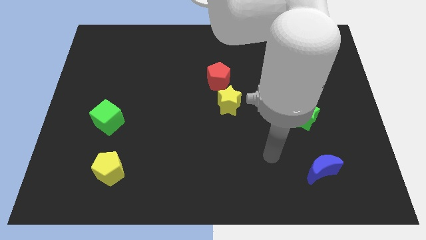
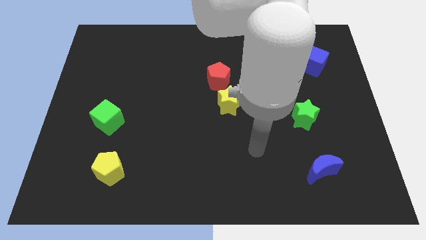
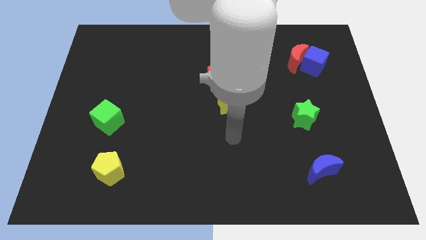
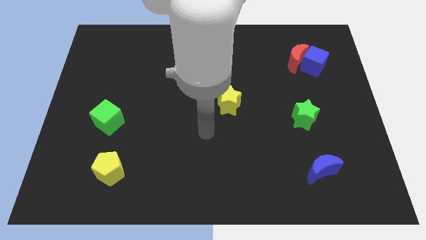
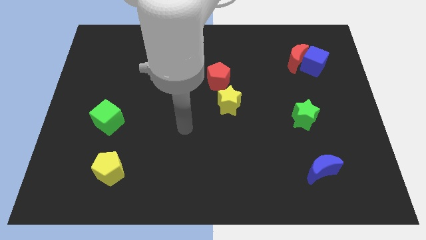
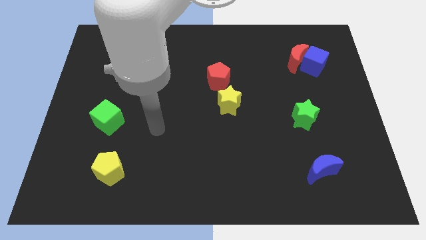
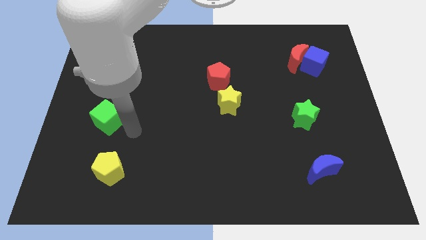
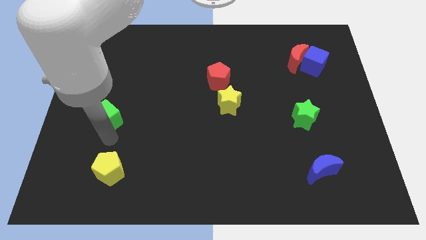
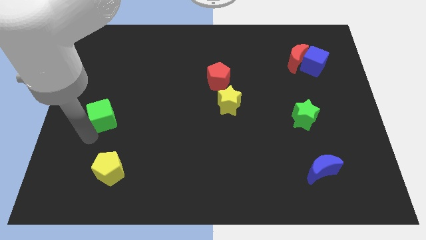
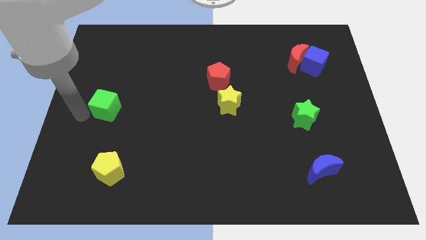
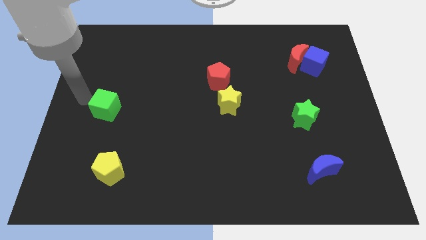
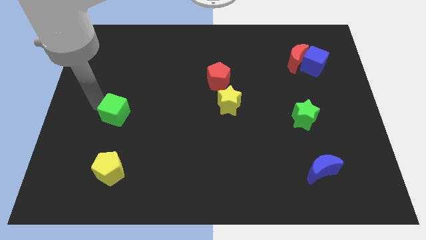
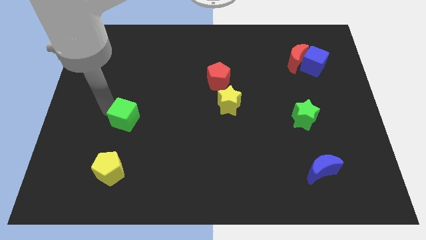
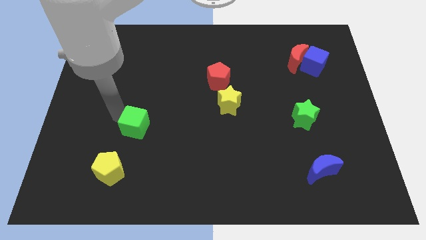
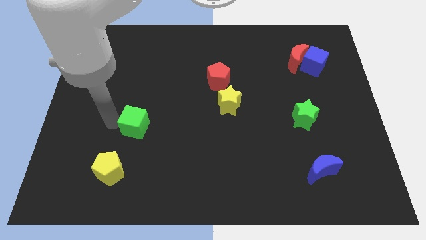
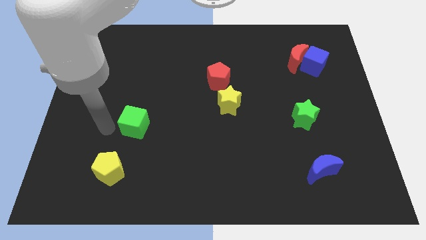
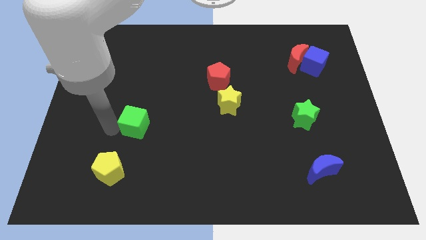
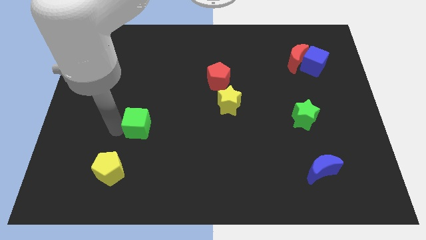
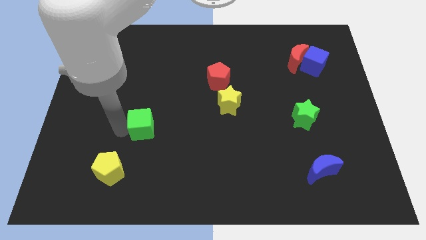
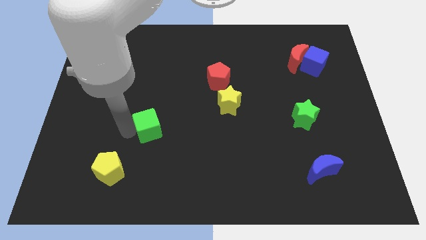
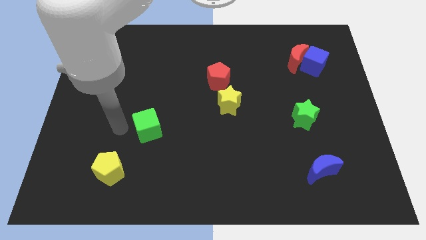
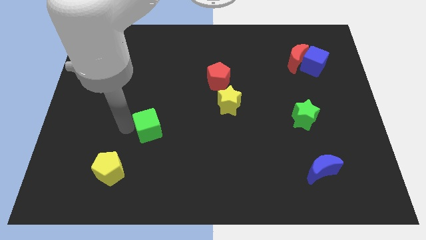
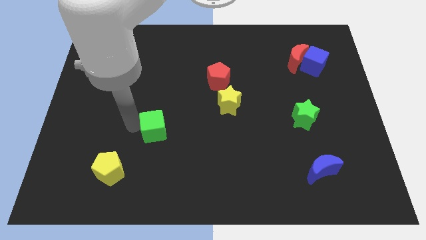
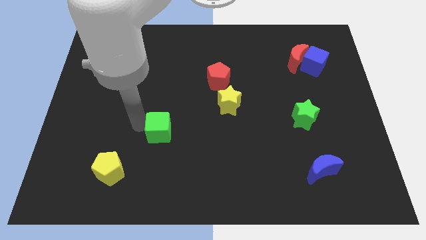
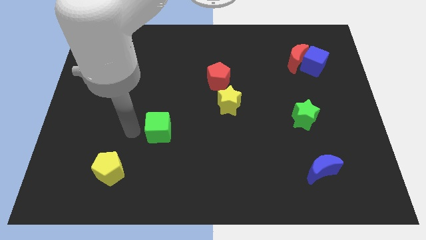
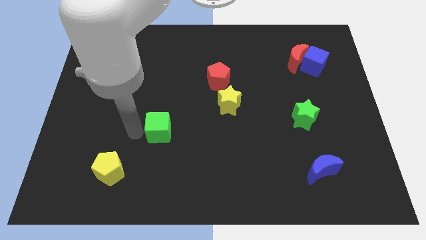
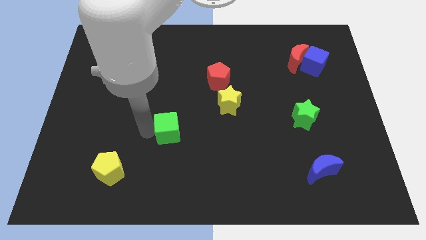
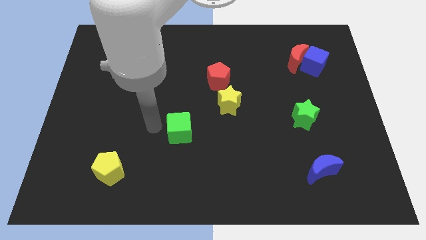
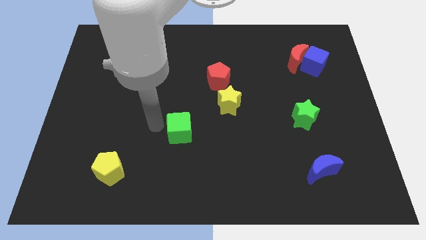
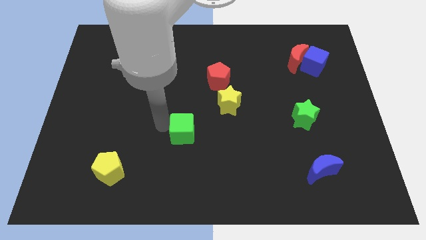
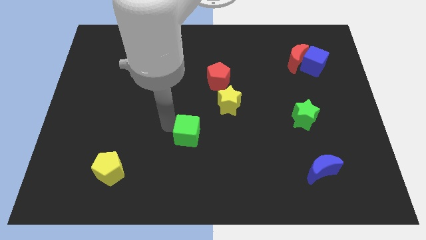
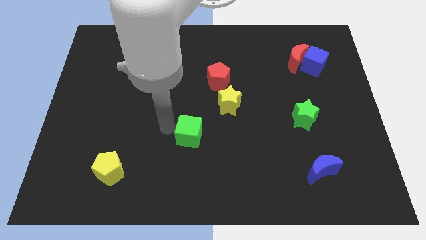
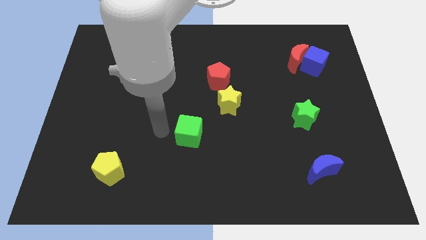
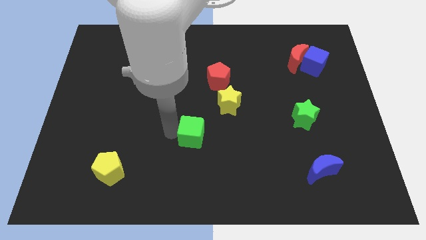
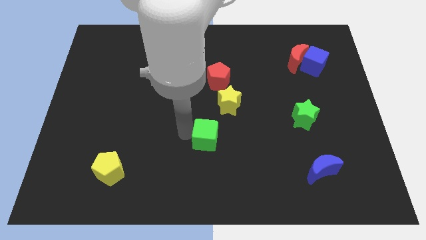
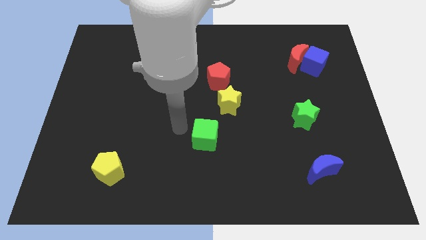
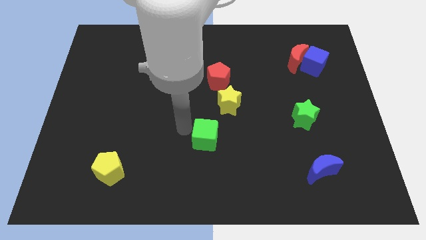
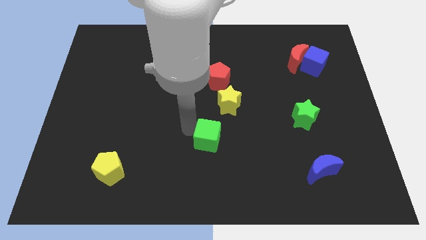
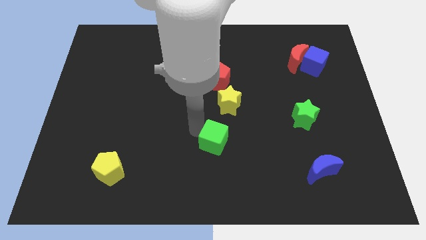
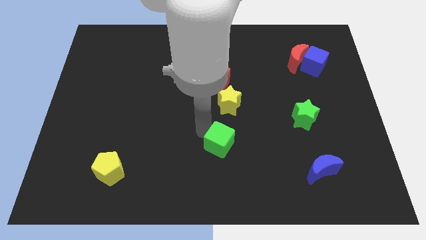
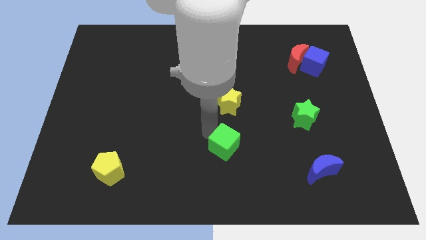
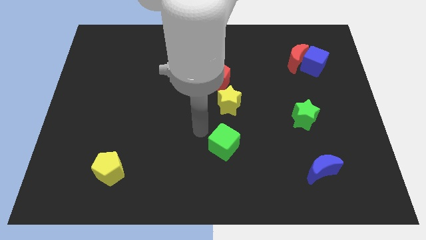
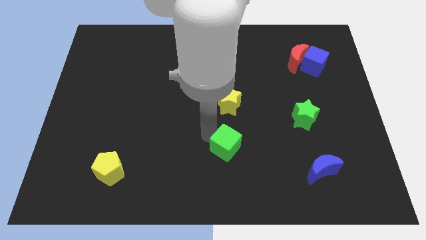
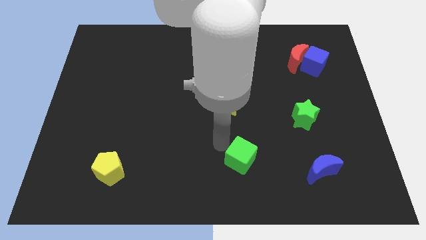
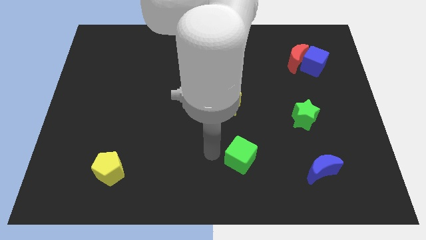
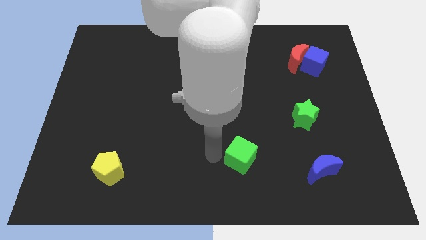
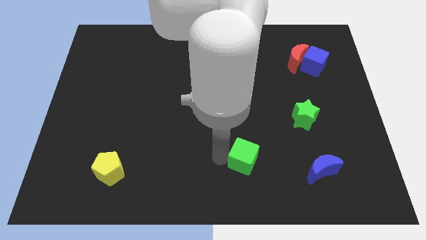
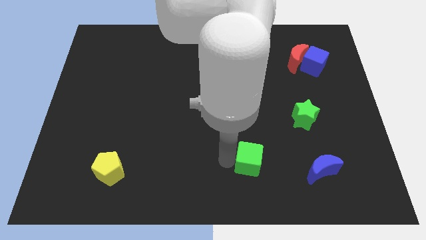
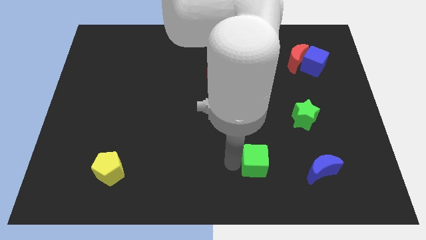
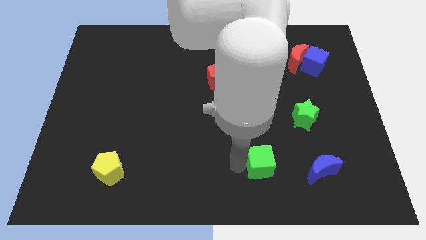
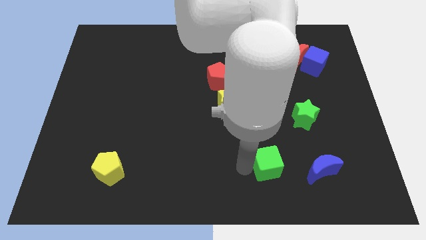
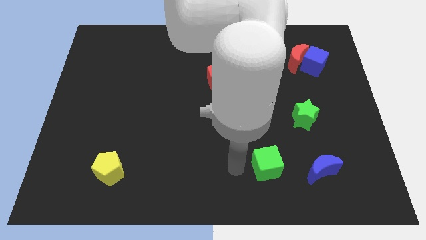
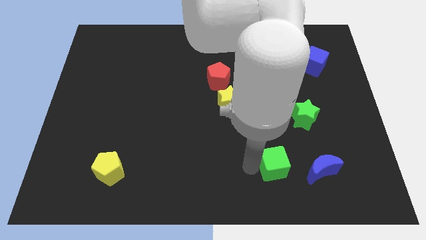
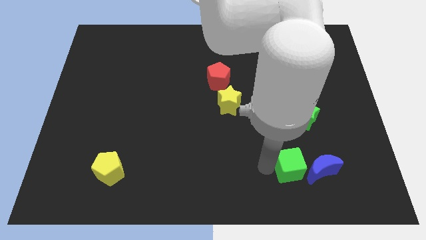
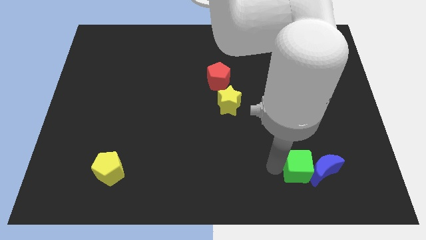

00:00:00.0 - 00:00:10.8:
push the green cube towards the blue moon

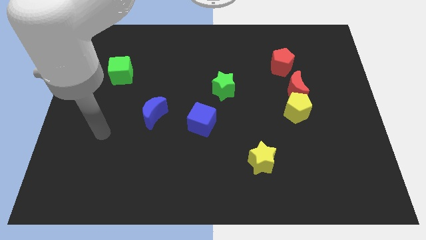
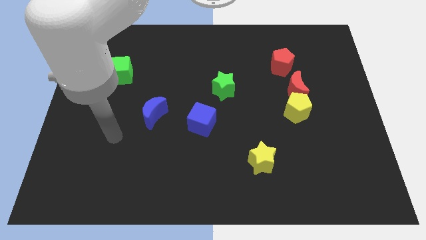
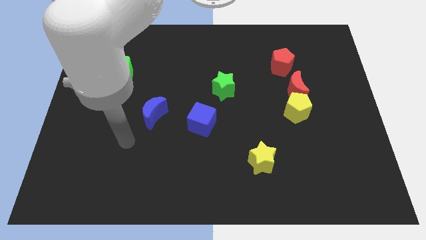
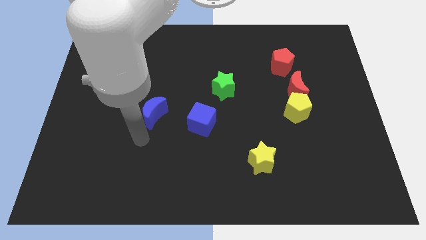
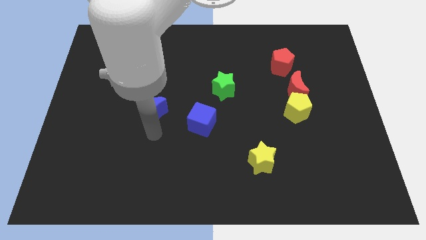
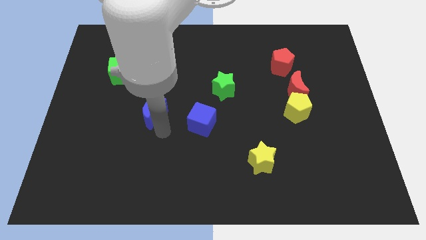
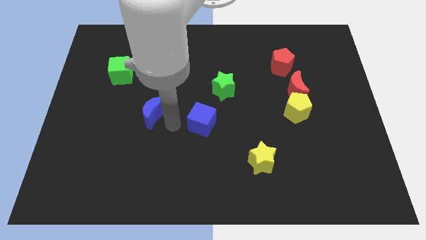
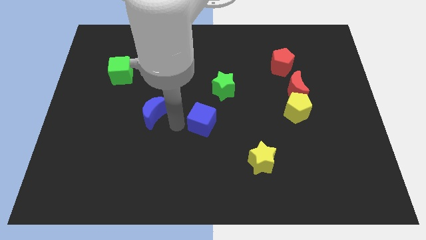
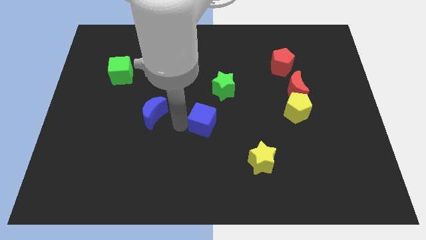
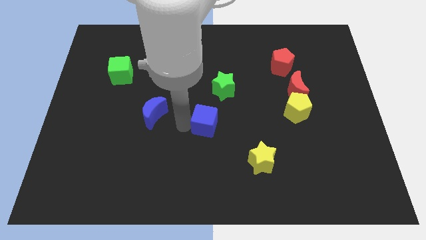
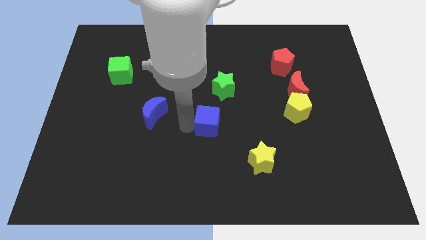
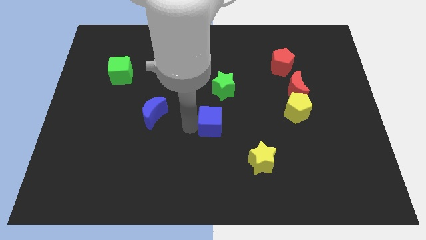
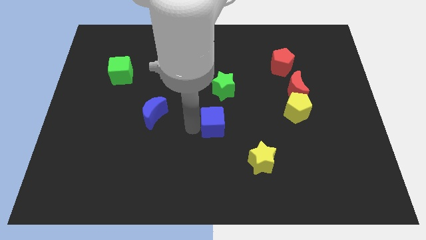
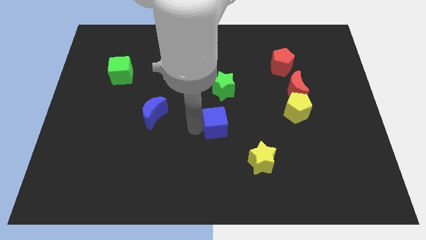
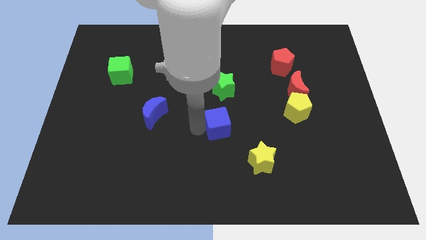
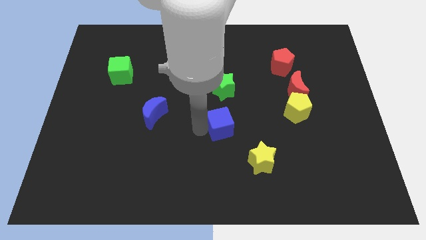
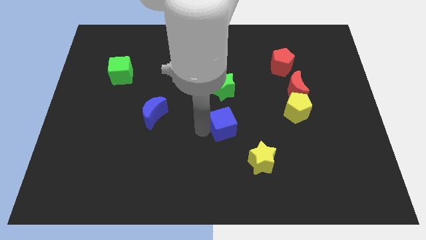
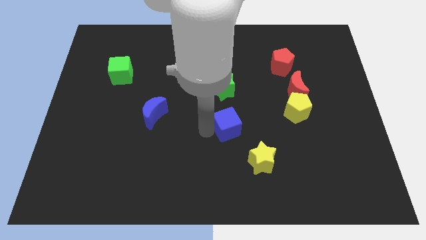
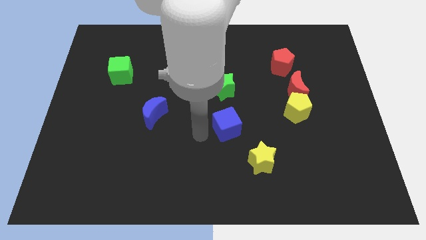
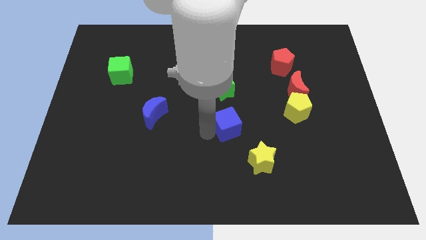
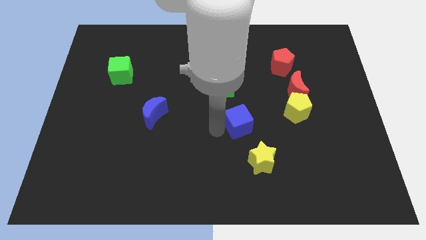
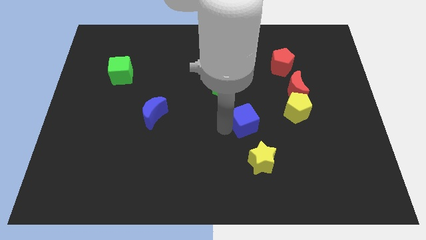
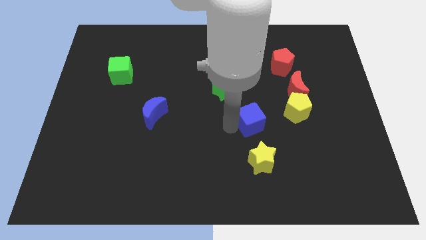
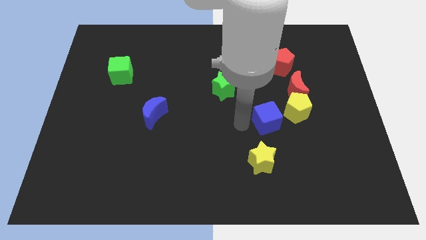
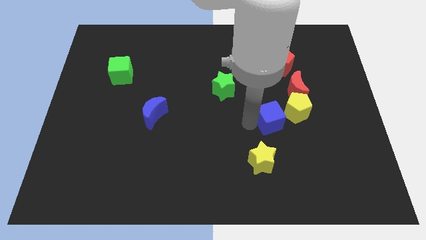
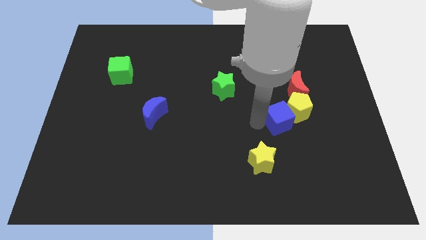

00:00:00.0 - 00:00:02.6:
push the blue cube close to the yellow pentagon
